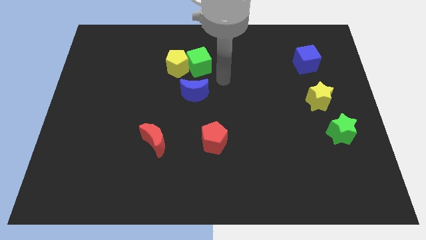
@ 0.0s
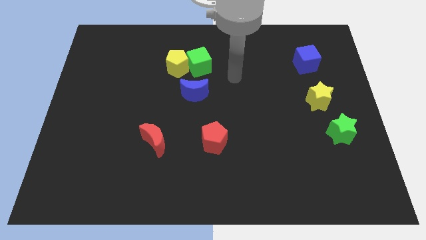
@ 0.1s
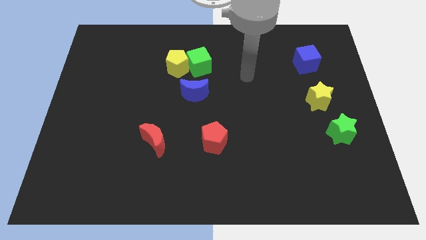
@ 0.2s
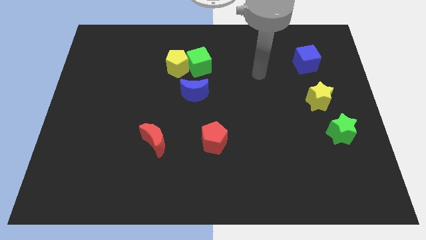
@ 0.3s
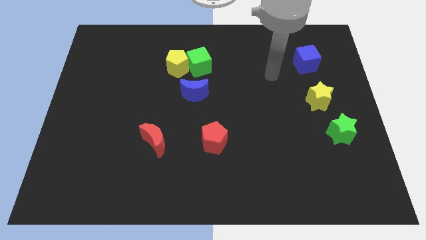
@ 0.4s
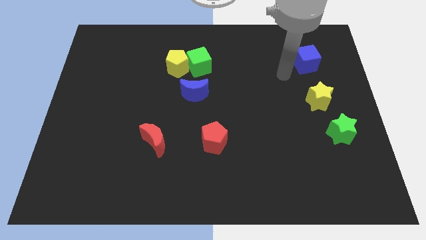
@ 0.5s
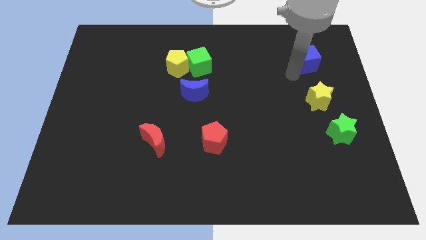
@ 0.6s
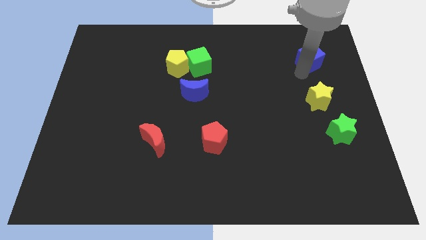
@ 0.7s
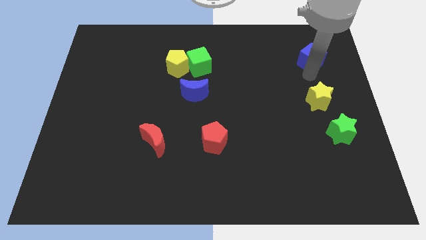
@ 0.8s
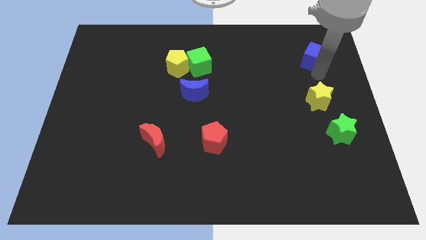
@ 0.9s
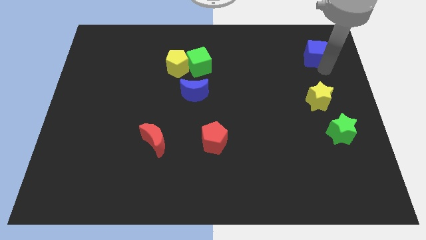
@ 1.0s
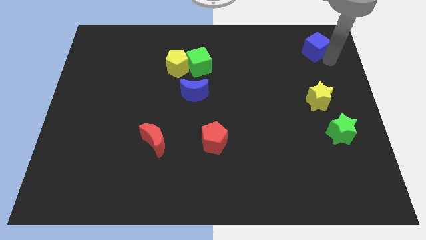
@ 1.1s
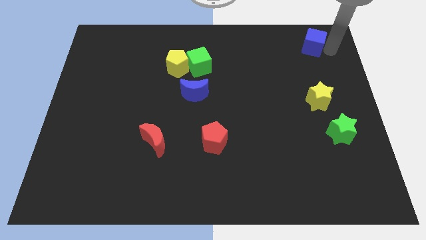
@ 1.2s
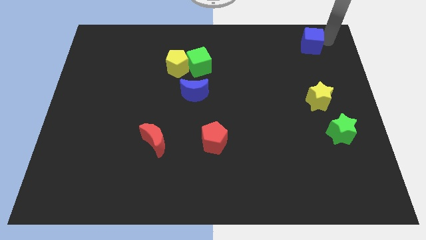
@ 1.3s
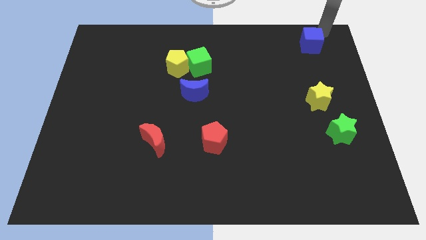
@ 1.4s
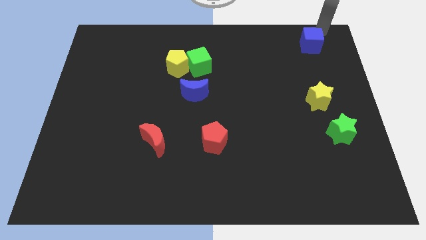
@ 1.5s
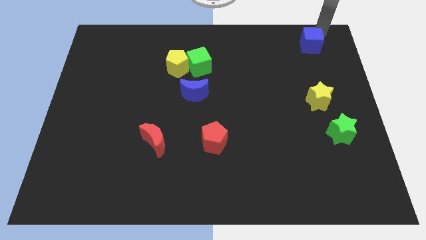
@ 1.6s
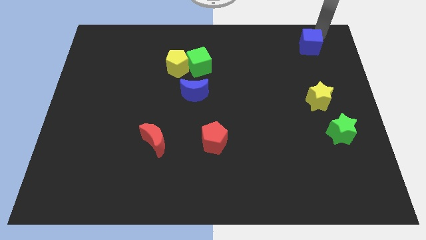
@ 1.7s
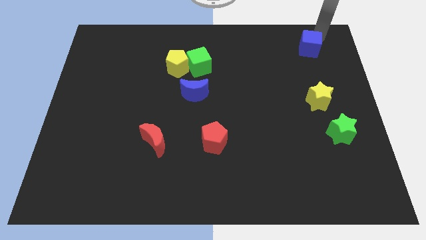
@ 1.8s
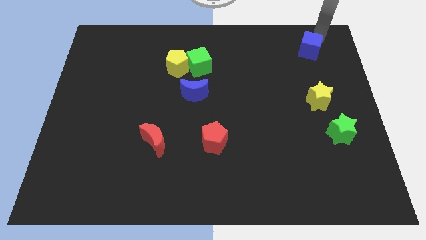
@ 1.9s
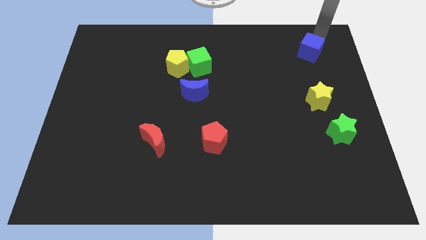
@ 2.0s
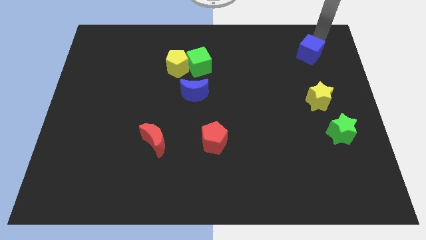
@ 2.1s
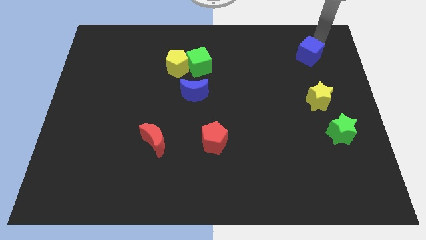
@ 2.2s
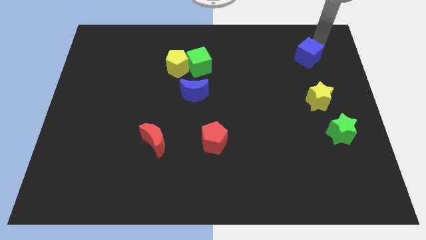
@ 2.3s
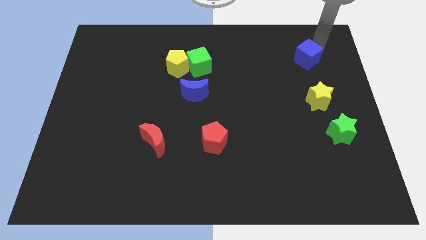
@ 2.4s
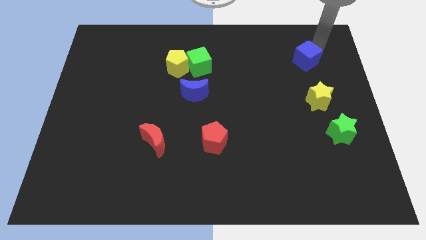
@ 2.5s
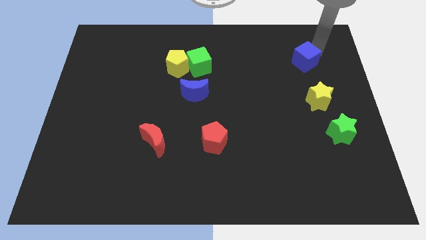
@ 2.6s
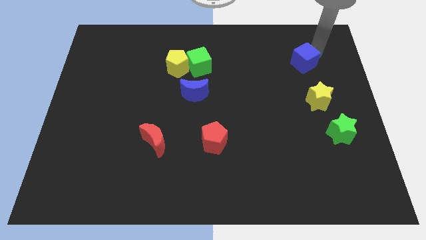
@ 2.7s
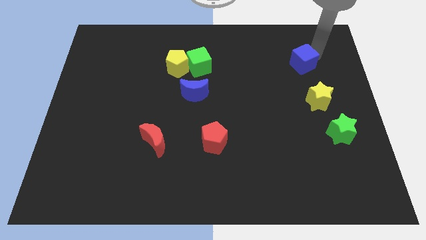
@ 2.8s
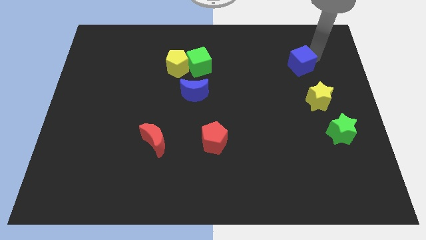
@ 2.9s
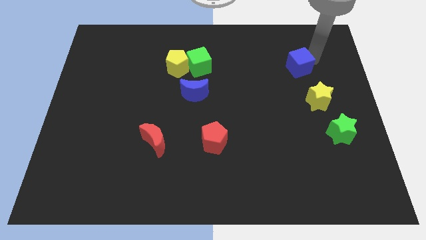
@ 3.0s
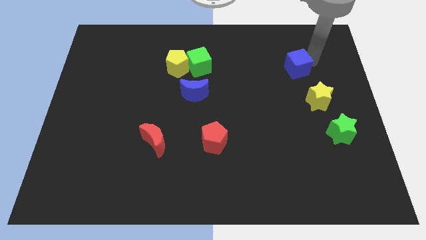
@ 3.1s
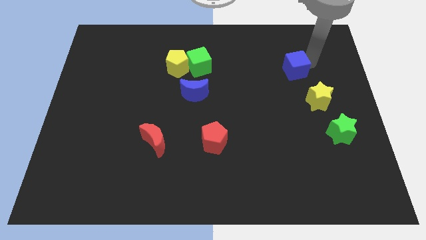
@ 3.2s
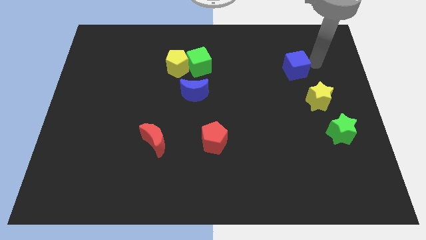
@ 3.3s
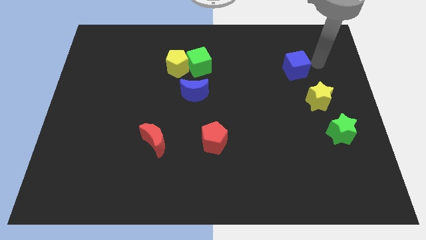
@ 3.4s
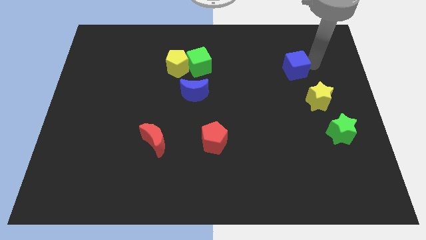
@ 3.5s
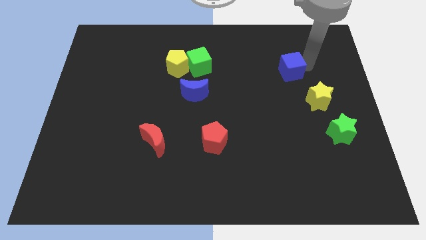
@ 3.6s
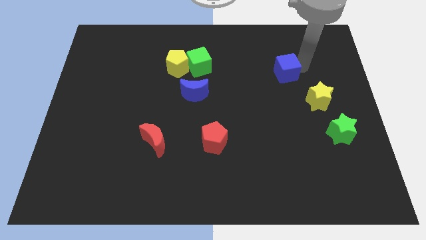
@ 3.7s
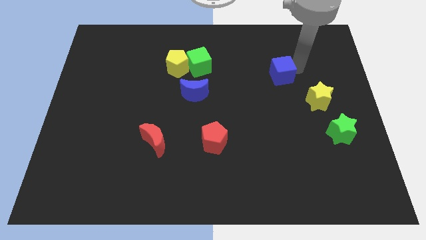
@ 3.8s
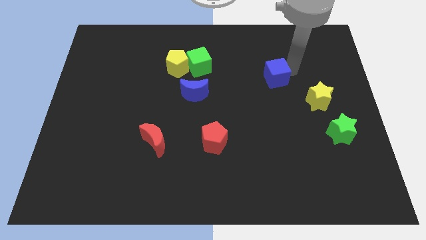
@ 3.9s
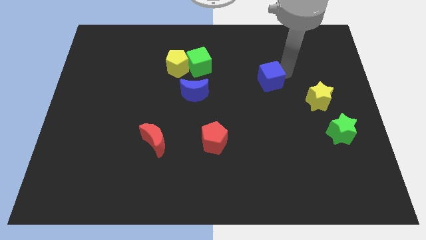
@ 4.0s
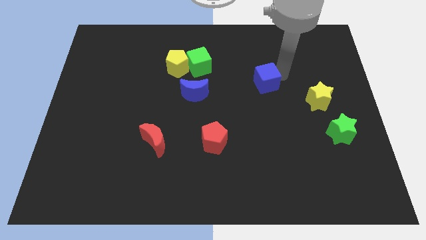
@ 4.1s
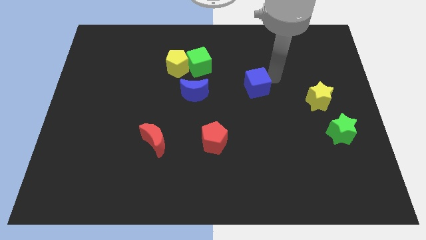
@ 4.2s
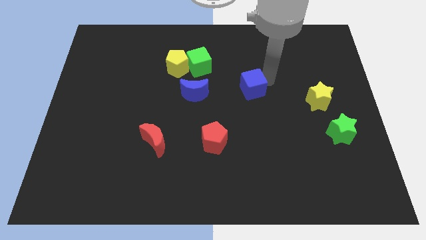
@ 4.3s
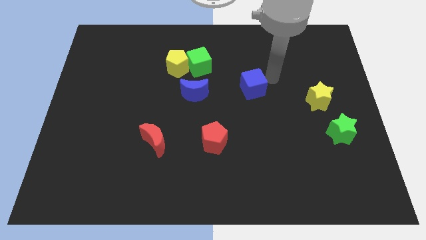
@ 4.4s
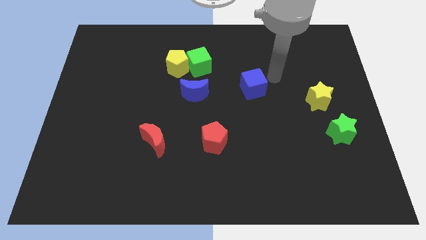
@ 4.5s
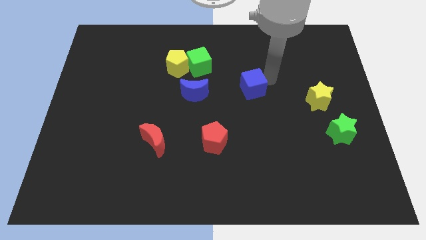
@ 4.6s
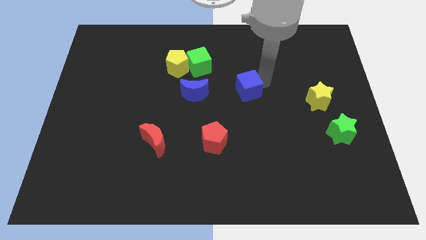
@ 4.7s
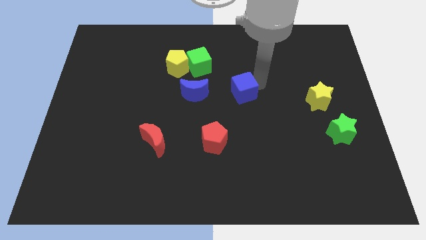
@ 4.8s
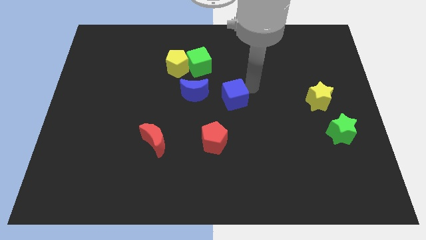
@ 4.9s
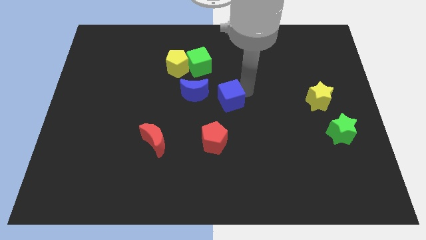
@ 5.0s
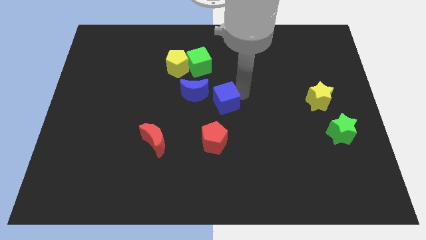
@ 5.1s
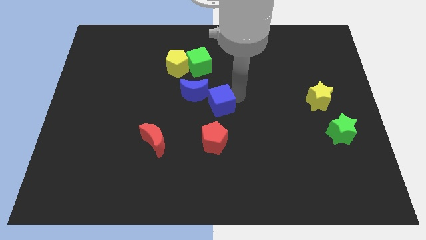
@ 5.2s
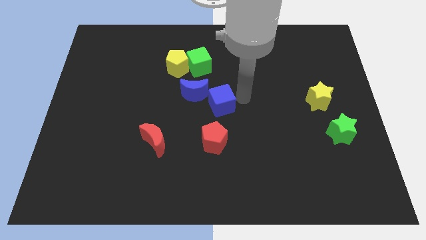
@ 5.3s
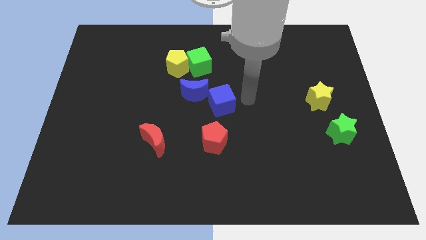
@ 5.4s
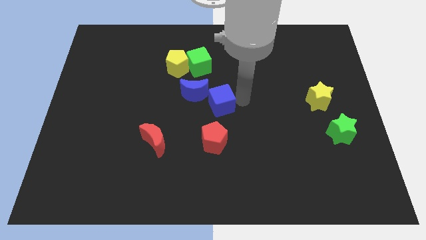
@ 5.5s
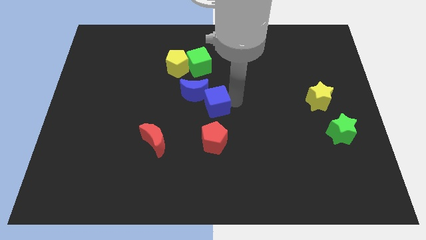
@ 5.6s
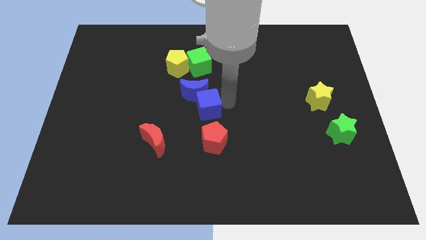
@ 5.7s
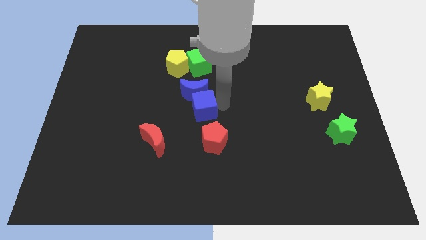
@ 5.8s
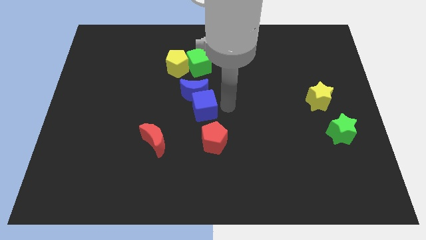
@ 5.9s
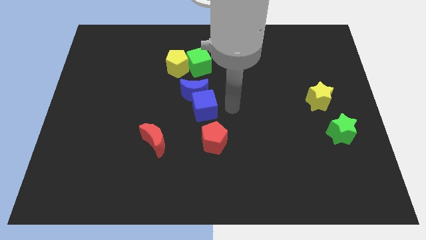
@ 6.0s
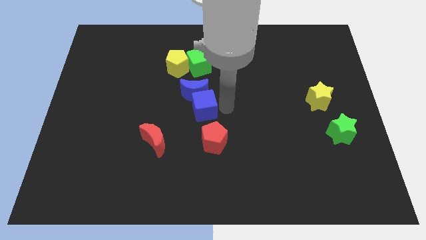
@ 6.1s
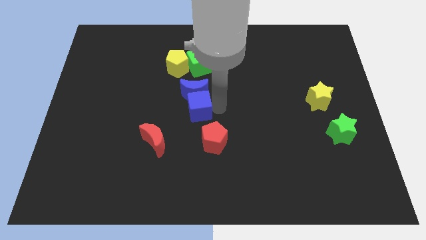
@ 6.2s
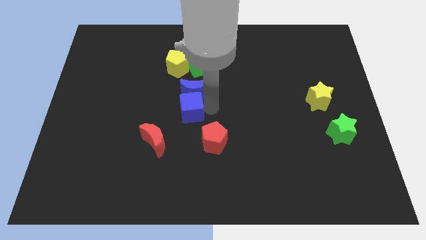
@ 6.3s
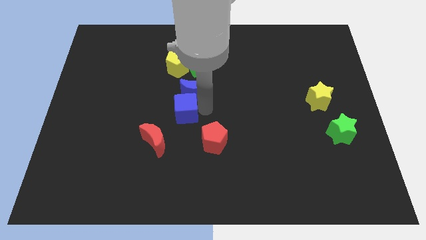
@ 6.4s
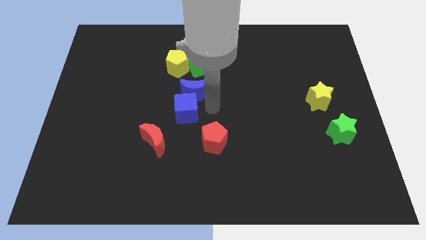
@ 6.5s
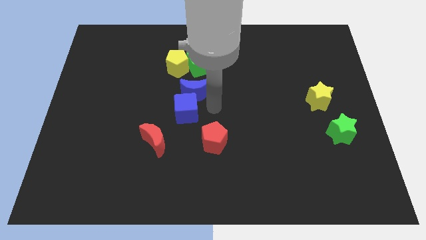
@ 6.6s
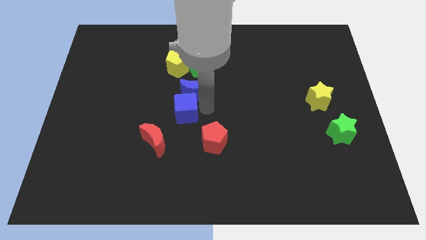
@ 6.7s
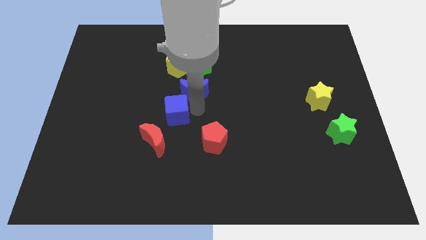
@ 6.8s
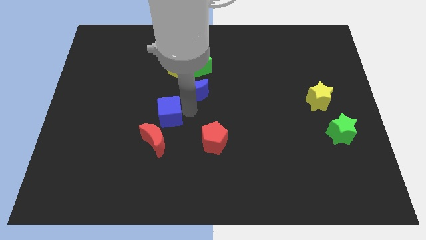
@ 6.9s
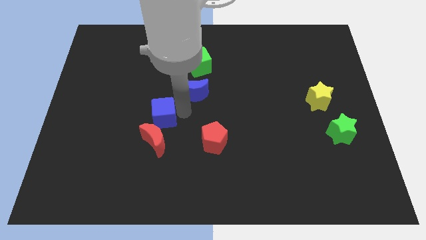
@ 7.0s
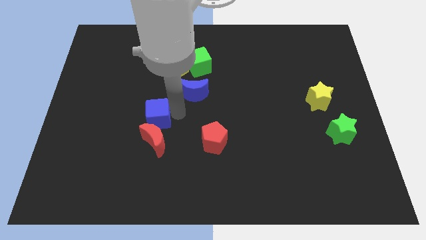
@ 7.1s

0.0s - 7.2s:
slide the blue cube to the top left of the red moon
